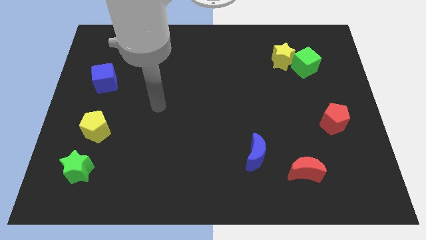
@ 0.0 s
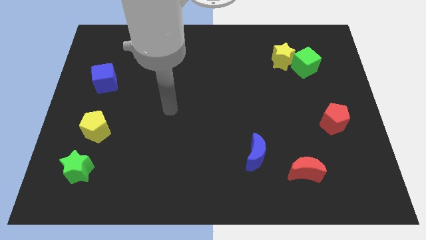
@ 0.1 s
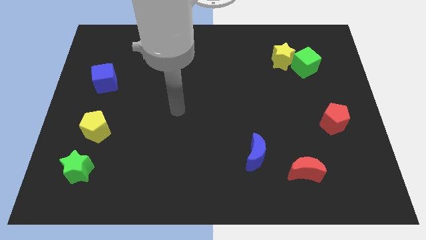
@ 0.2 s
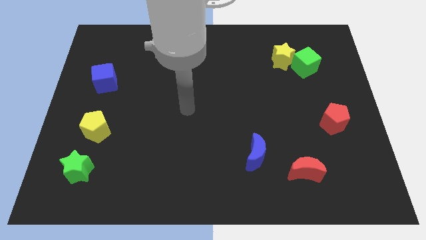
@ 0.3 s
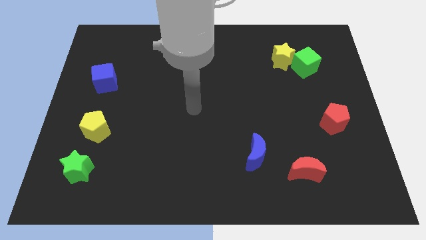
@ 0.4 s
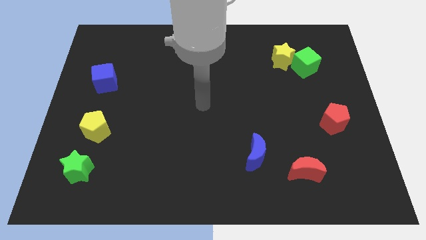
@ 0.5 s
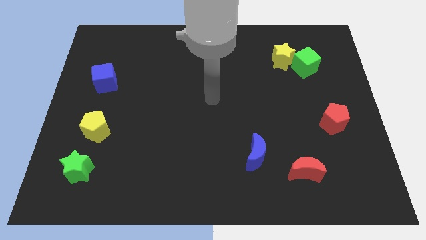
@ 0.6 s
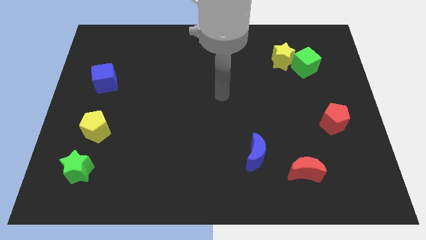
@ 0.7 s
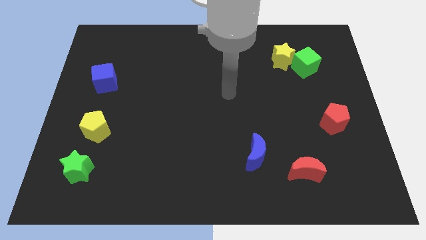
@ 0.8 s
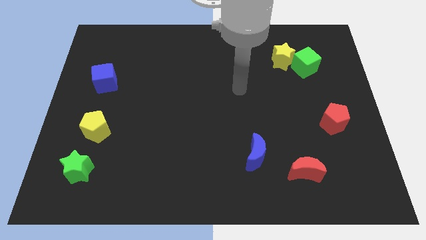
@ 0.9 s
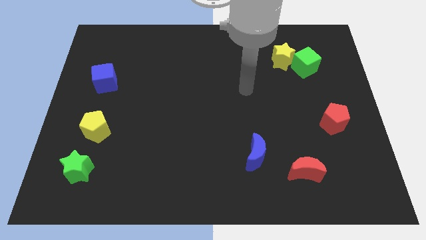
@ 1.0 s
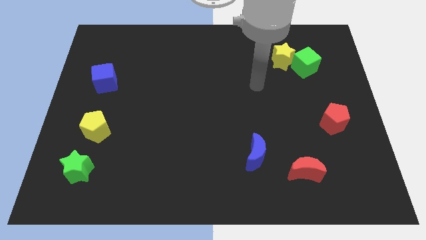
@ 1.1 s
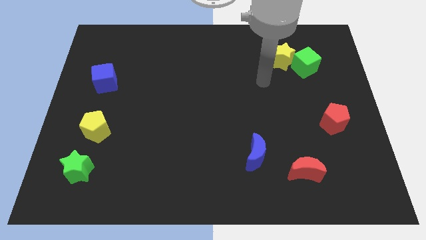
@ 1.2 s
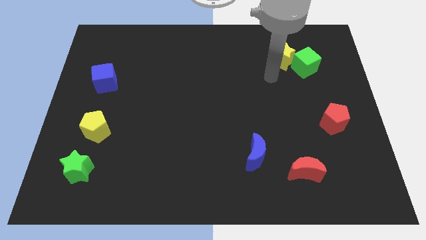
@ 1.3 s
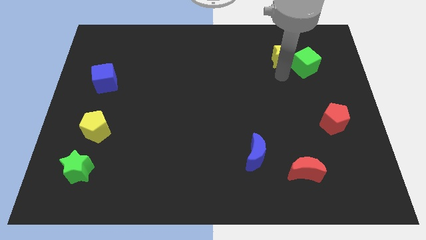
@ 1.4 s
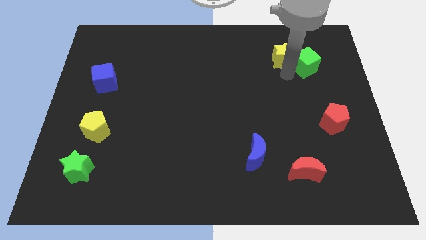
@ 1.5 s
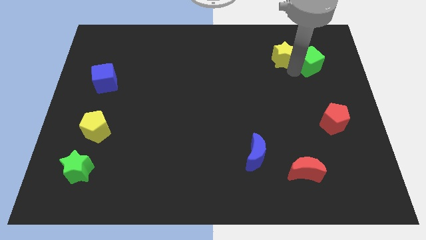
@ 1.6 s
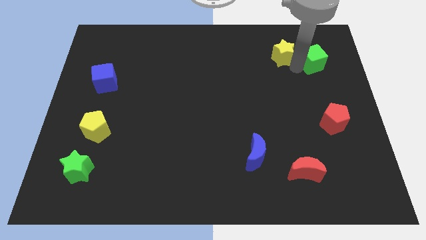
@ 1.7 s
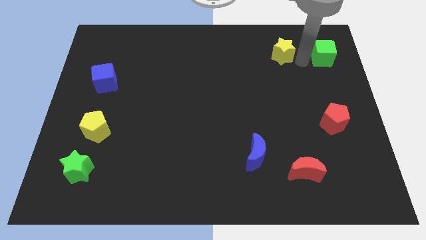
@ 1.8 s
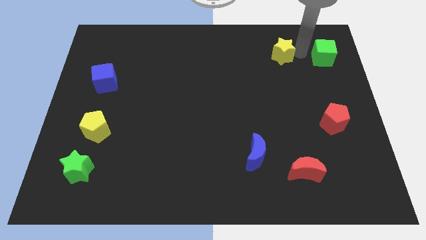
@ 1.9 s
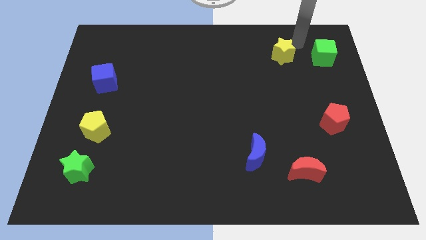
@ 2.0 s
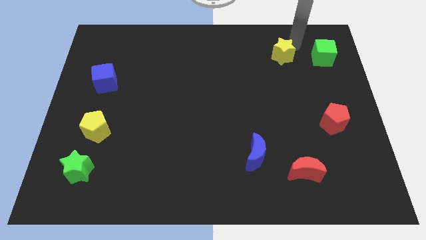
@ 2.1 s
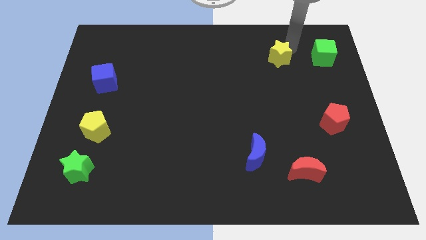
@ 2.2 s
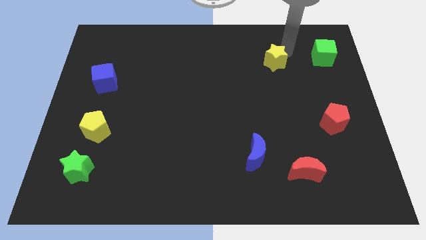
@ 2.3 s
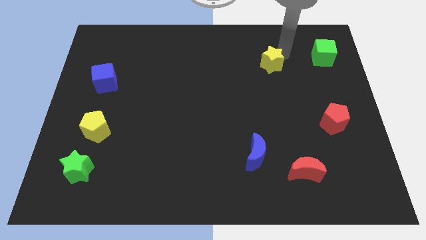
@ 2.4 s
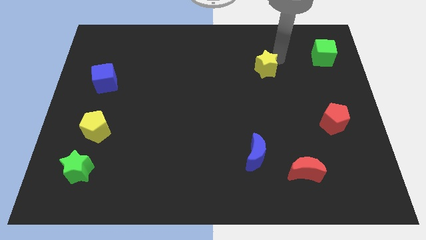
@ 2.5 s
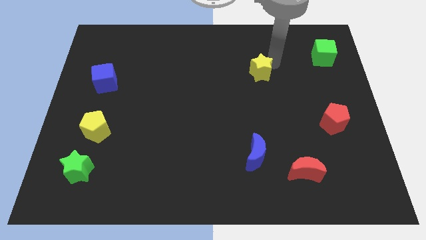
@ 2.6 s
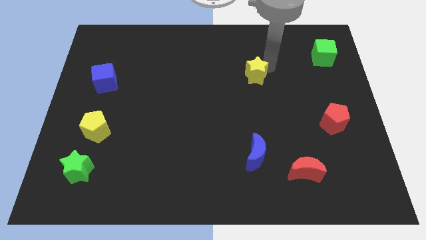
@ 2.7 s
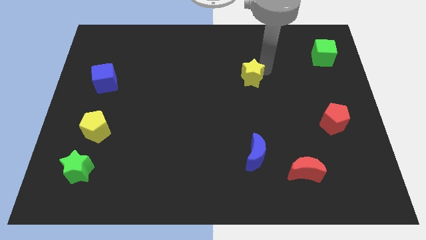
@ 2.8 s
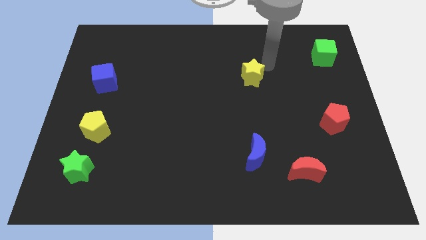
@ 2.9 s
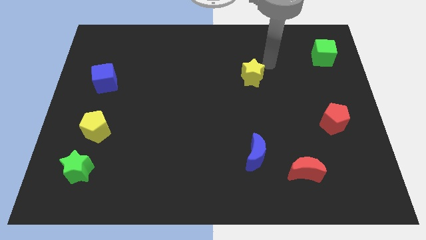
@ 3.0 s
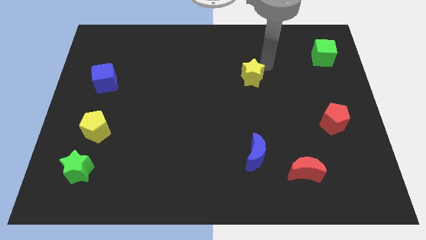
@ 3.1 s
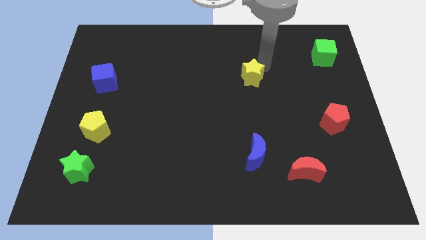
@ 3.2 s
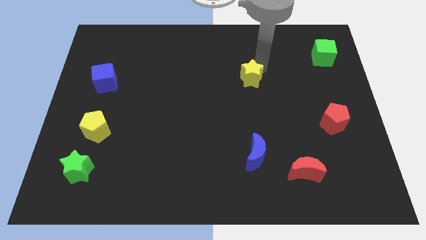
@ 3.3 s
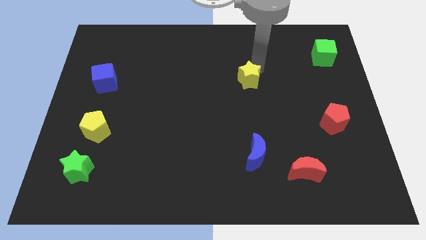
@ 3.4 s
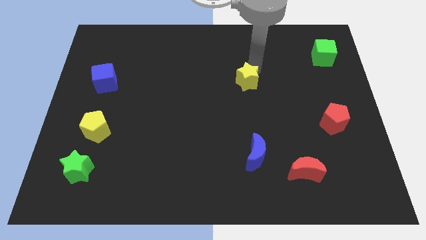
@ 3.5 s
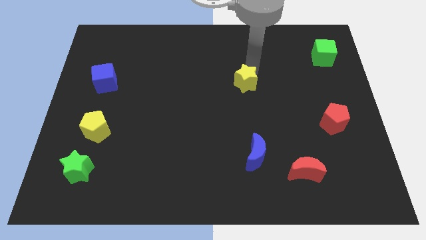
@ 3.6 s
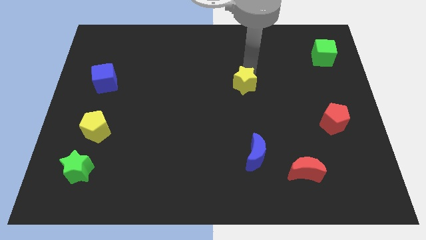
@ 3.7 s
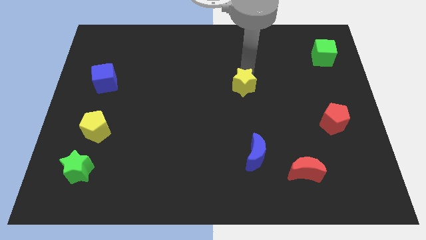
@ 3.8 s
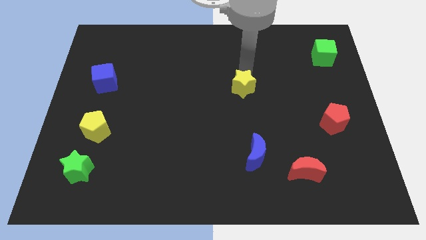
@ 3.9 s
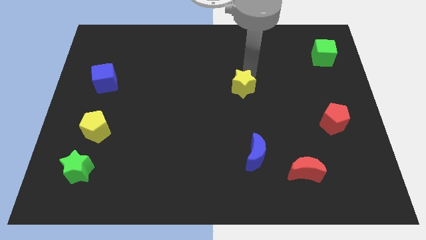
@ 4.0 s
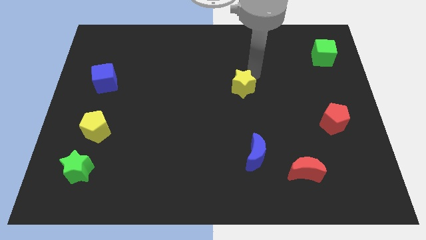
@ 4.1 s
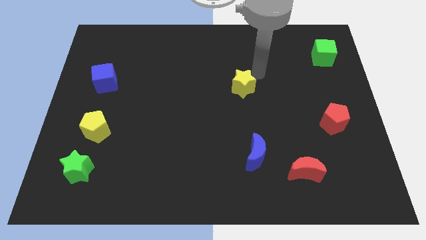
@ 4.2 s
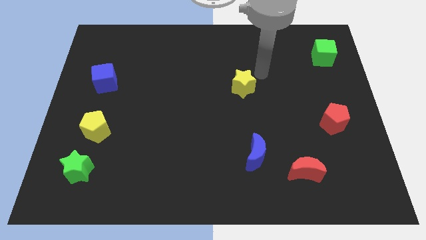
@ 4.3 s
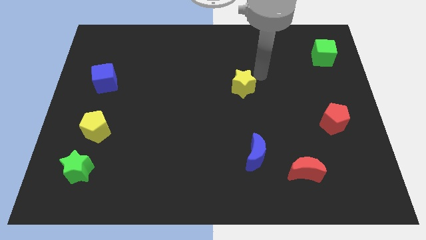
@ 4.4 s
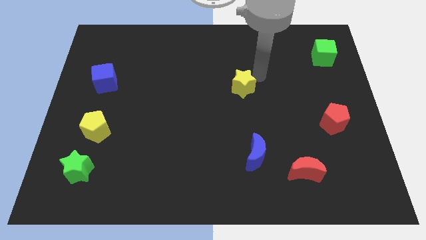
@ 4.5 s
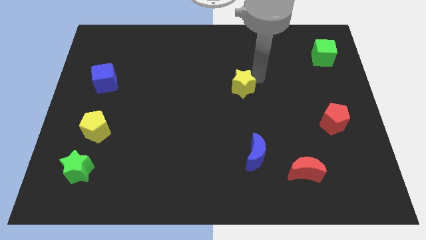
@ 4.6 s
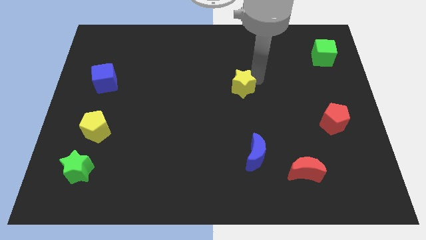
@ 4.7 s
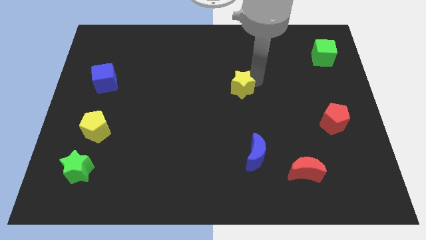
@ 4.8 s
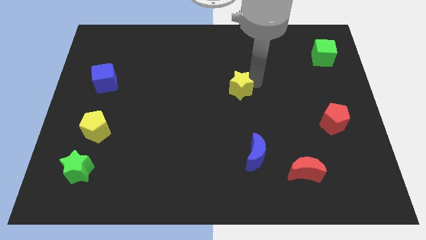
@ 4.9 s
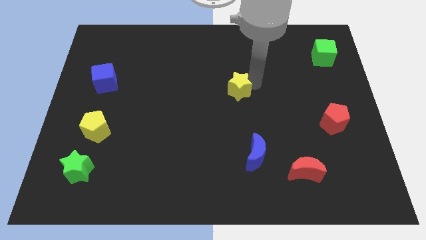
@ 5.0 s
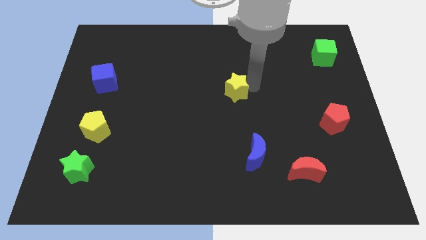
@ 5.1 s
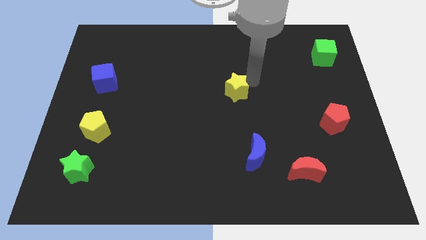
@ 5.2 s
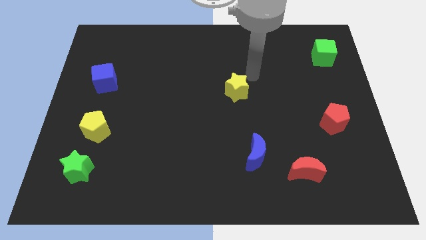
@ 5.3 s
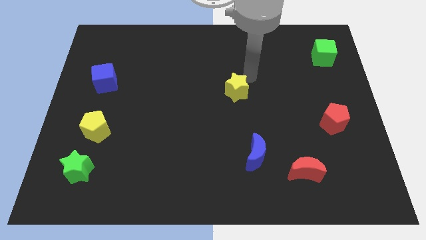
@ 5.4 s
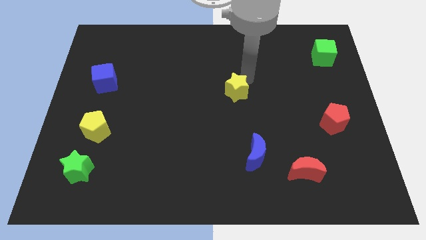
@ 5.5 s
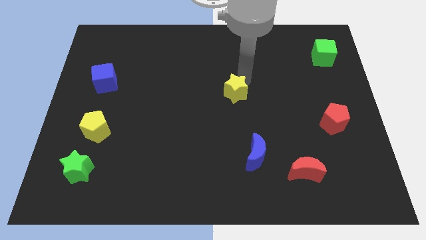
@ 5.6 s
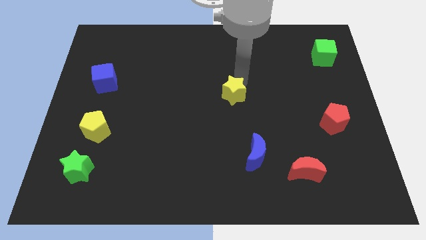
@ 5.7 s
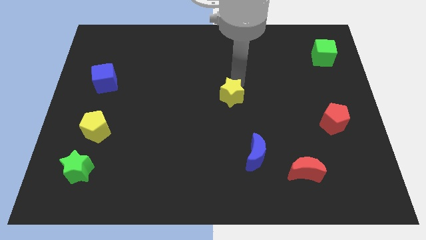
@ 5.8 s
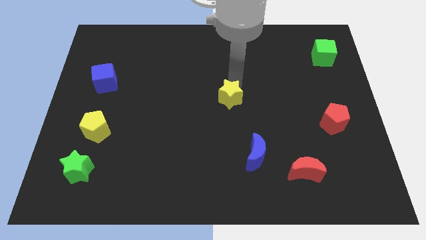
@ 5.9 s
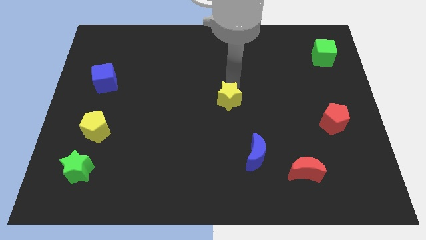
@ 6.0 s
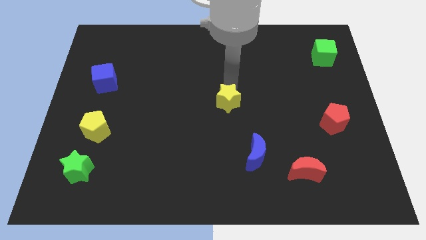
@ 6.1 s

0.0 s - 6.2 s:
slide the yellow star diagonally down and to the left

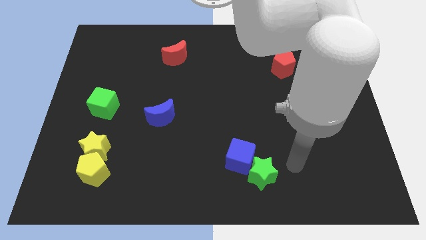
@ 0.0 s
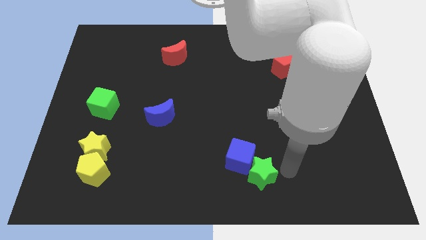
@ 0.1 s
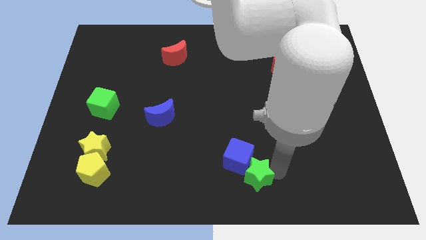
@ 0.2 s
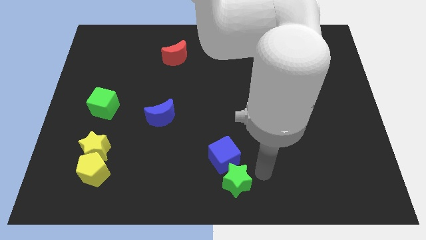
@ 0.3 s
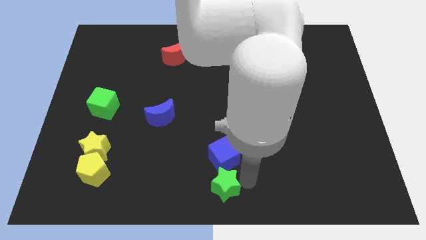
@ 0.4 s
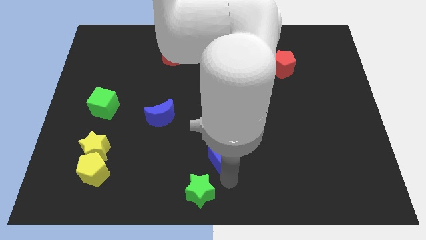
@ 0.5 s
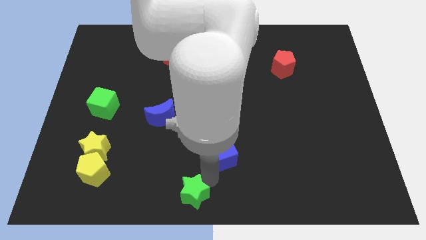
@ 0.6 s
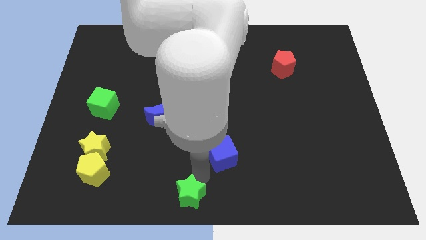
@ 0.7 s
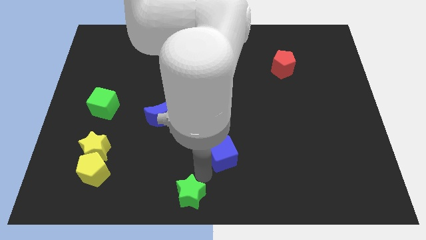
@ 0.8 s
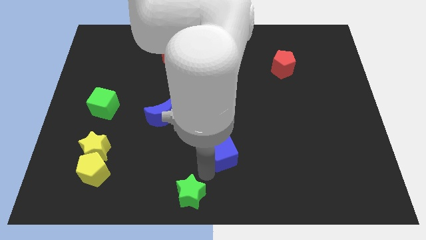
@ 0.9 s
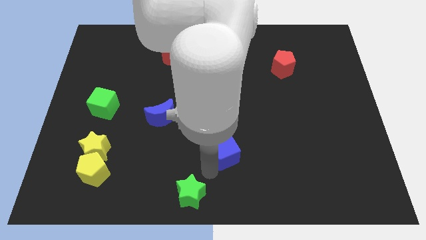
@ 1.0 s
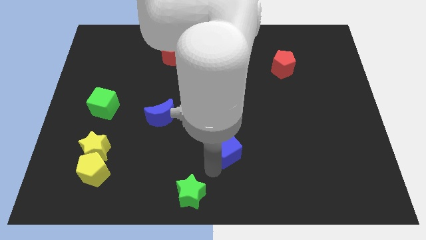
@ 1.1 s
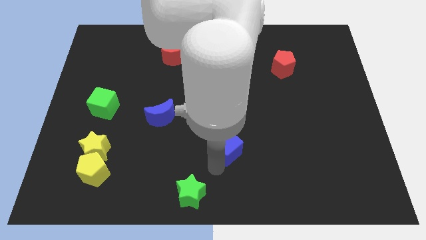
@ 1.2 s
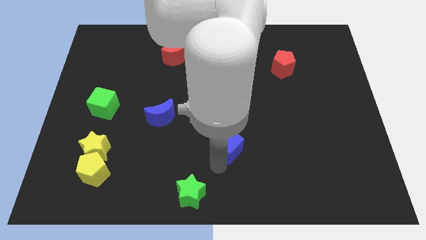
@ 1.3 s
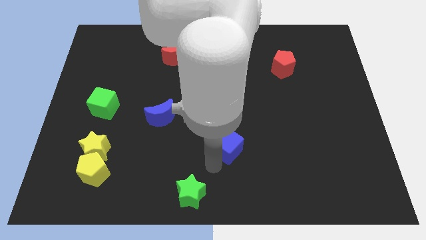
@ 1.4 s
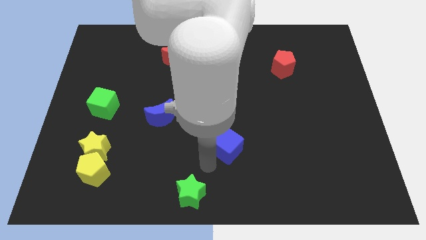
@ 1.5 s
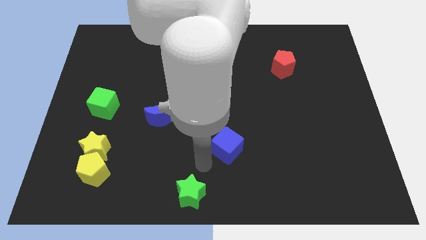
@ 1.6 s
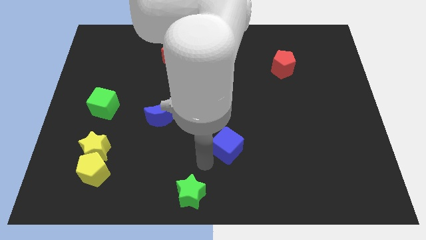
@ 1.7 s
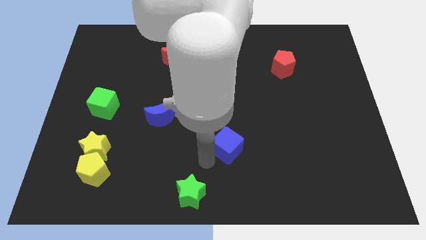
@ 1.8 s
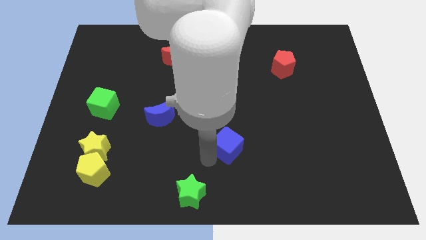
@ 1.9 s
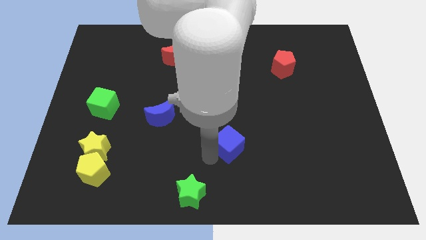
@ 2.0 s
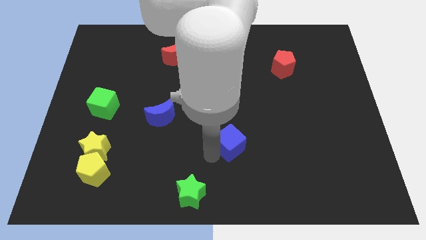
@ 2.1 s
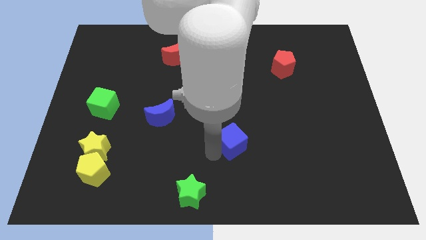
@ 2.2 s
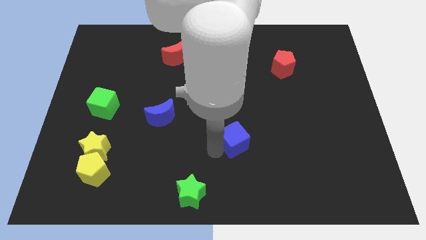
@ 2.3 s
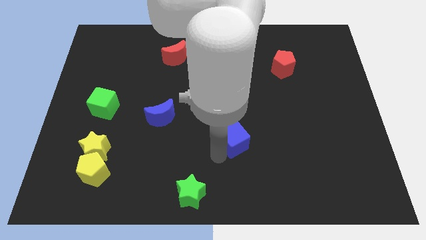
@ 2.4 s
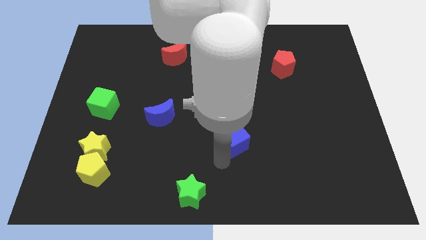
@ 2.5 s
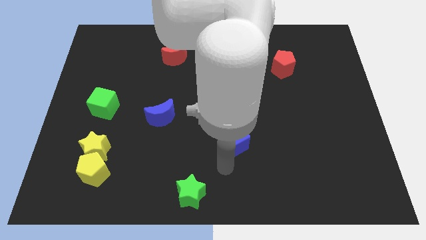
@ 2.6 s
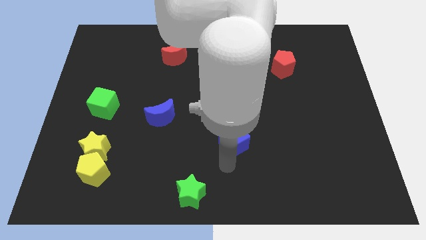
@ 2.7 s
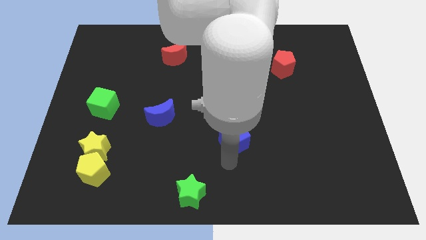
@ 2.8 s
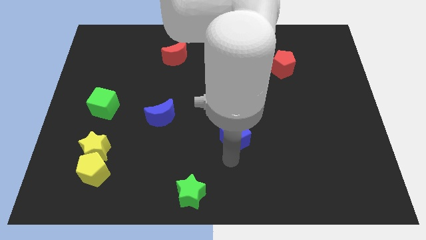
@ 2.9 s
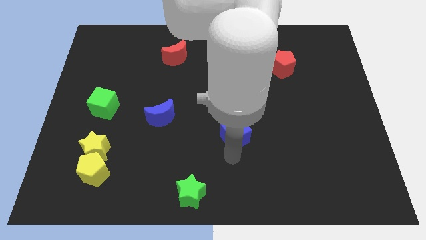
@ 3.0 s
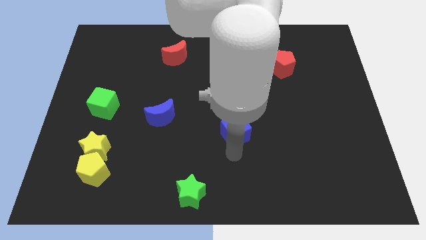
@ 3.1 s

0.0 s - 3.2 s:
slide the blue cube up a little bit
